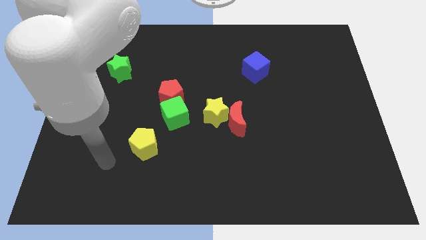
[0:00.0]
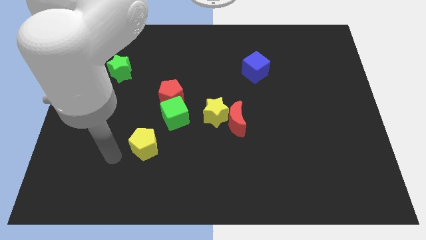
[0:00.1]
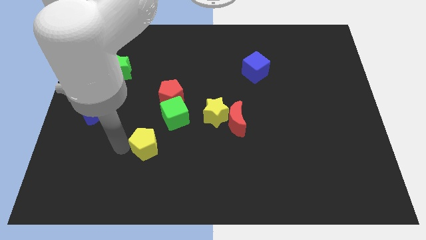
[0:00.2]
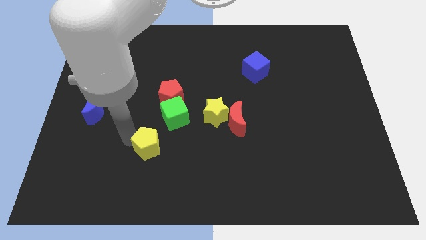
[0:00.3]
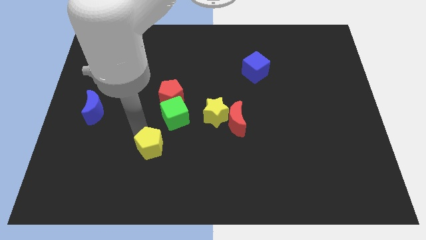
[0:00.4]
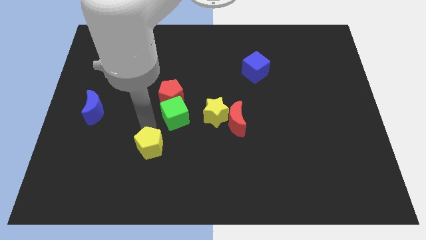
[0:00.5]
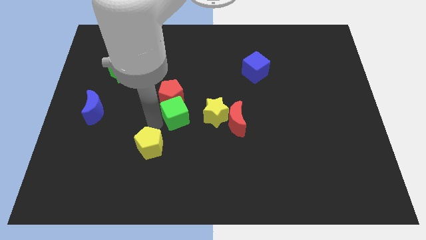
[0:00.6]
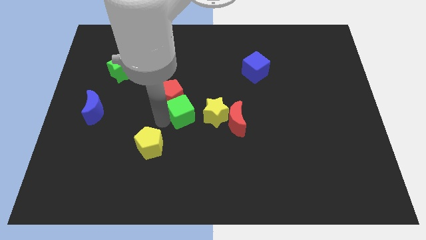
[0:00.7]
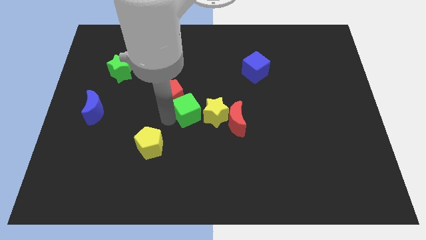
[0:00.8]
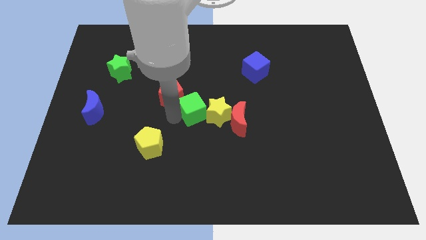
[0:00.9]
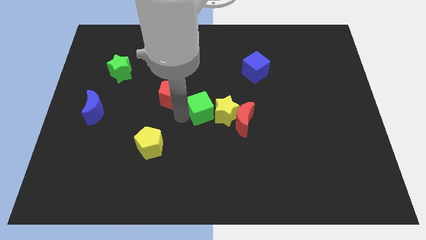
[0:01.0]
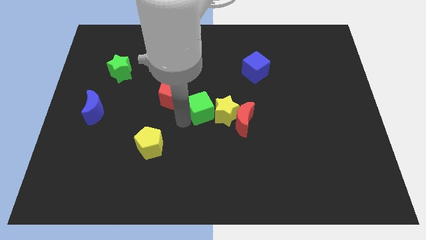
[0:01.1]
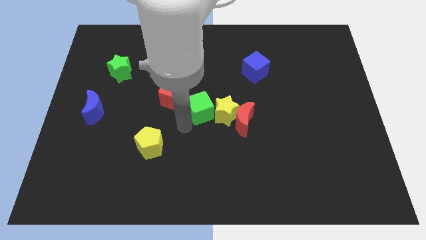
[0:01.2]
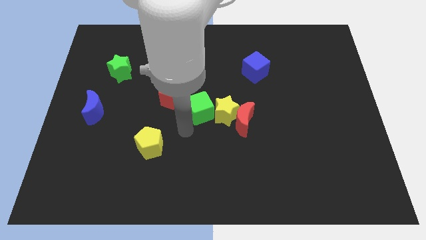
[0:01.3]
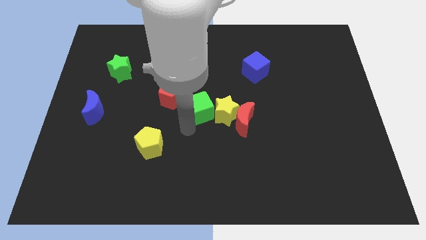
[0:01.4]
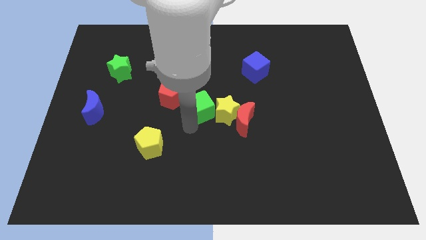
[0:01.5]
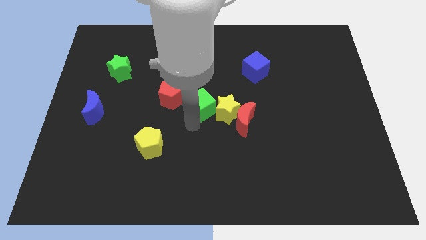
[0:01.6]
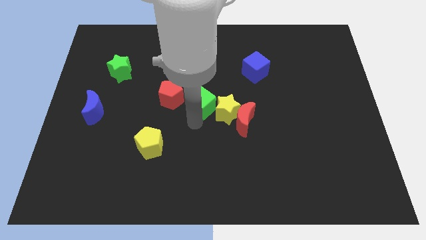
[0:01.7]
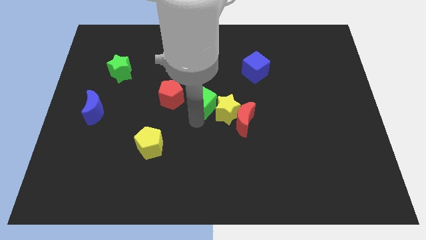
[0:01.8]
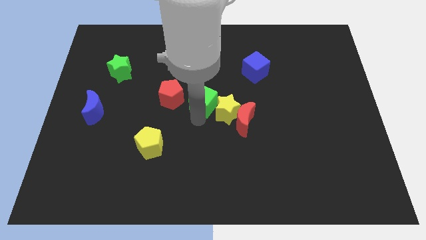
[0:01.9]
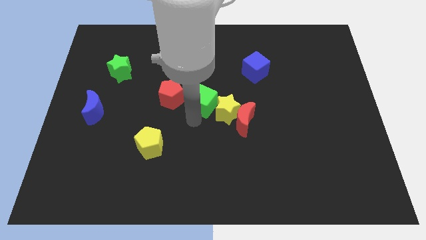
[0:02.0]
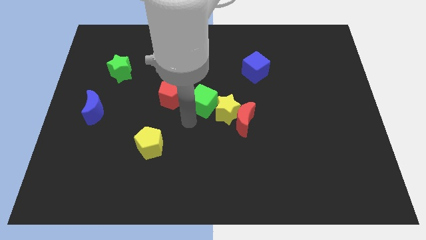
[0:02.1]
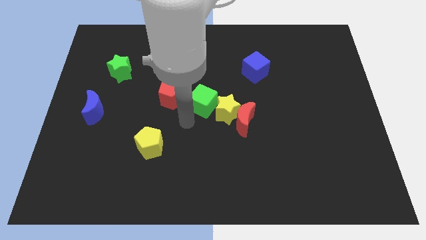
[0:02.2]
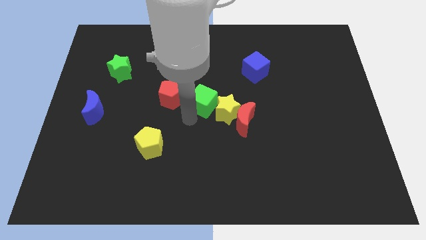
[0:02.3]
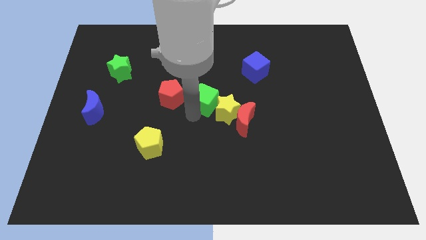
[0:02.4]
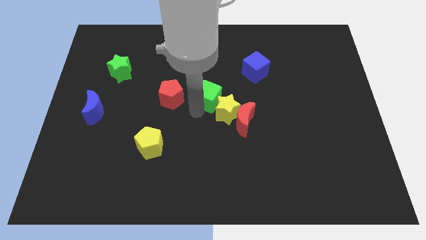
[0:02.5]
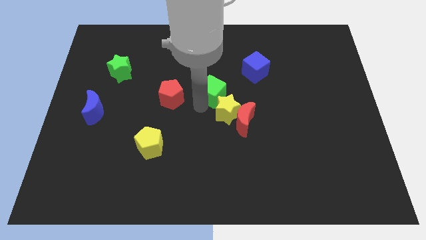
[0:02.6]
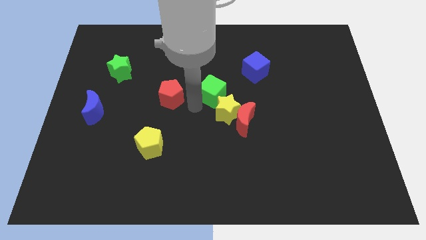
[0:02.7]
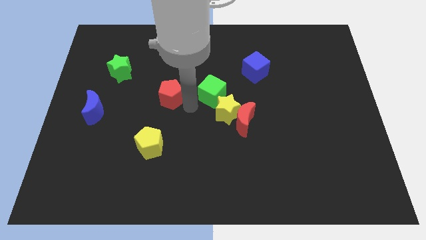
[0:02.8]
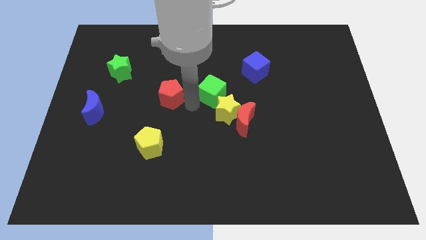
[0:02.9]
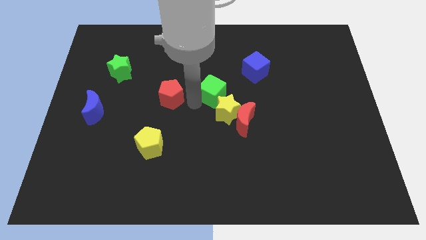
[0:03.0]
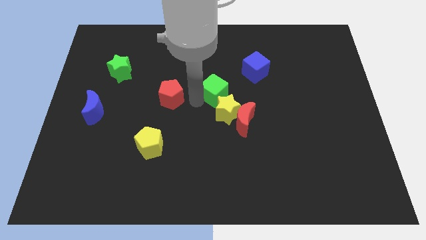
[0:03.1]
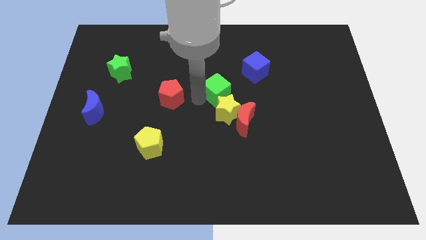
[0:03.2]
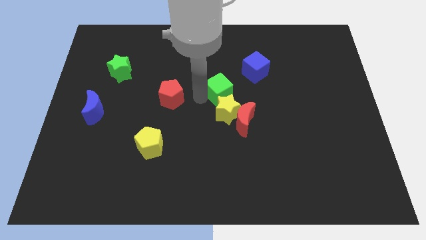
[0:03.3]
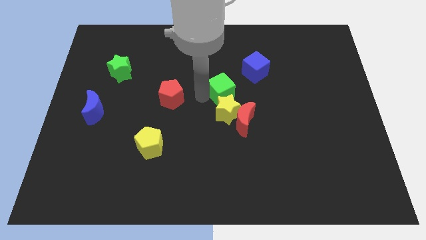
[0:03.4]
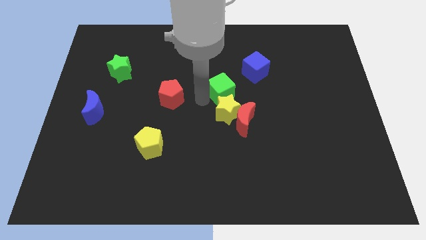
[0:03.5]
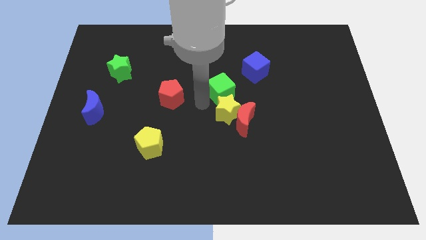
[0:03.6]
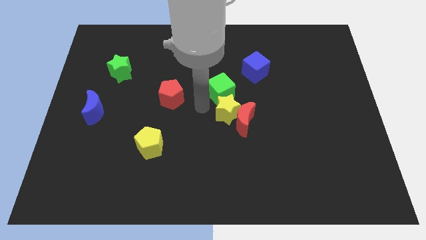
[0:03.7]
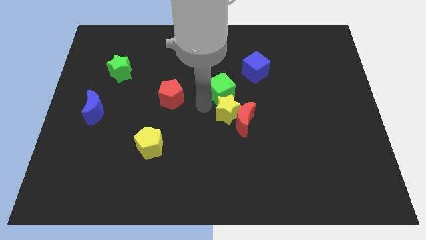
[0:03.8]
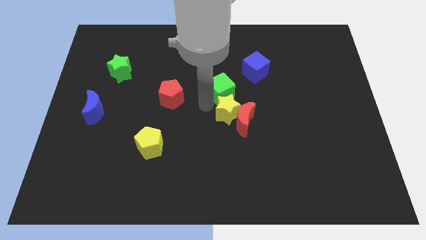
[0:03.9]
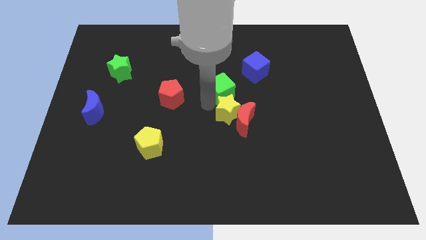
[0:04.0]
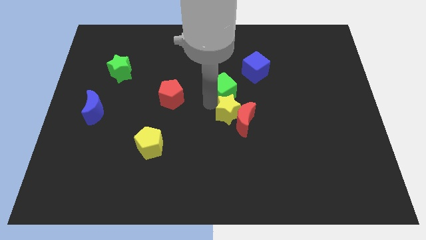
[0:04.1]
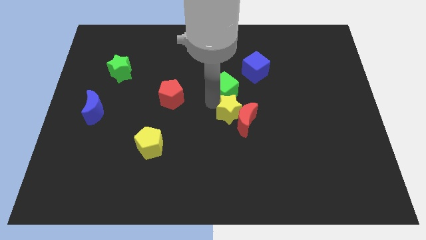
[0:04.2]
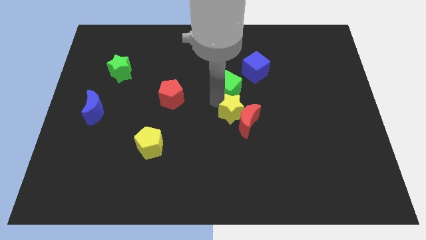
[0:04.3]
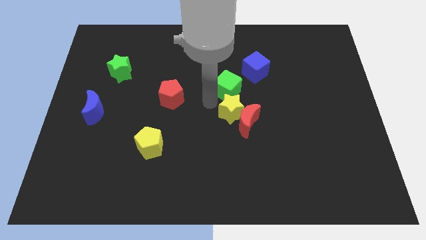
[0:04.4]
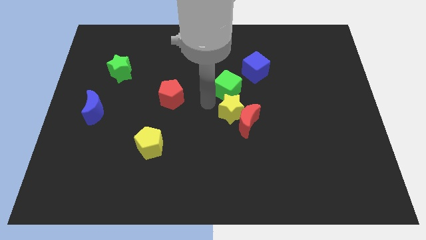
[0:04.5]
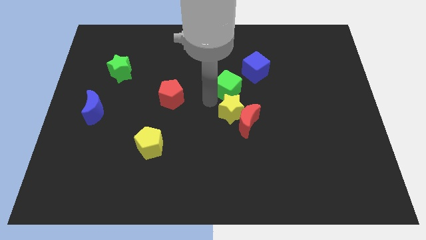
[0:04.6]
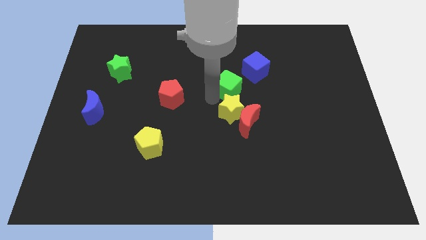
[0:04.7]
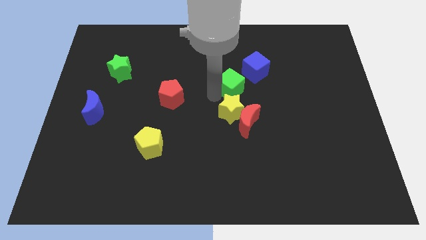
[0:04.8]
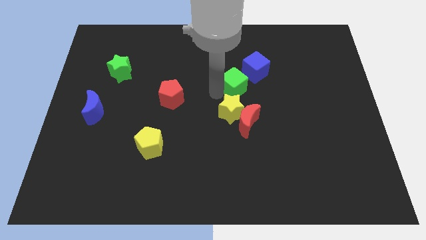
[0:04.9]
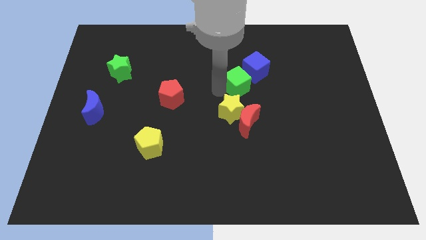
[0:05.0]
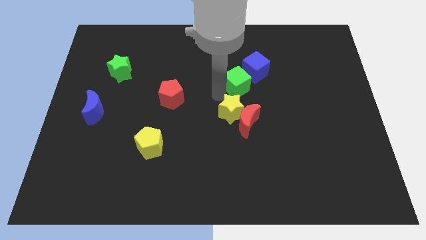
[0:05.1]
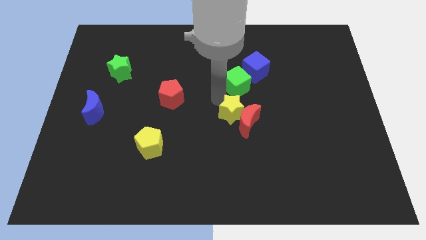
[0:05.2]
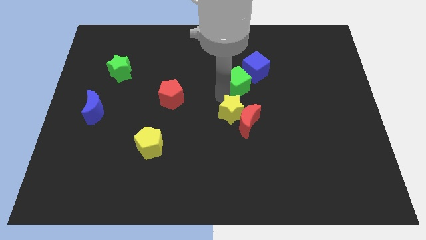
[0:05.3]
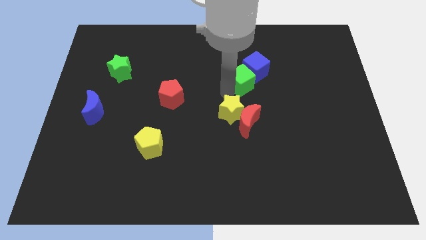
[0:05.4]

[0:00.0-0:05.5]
slide the green cube towards the blue cube

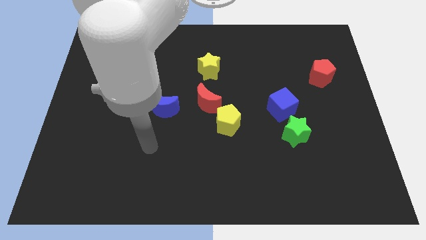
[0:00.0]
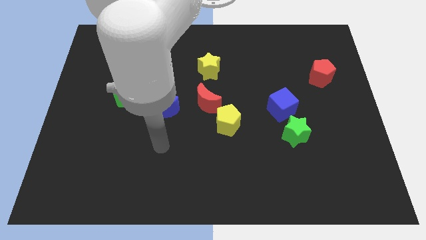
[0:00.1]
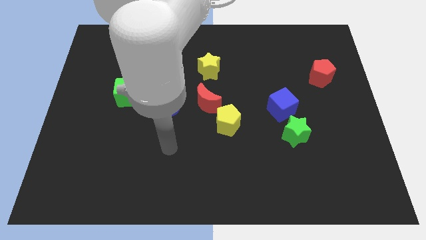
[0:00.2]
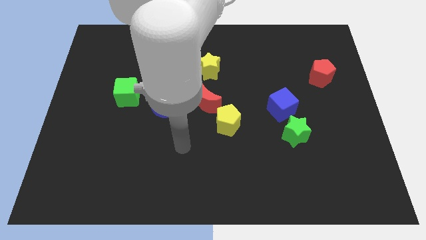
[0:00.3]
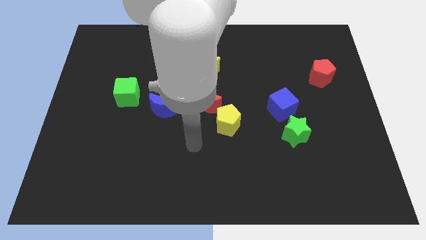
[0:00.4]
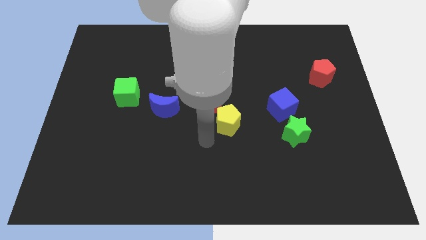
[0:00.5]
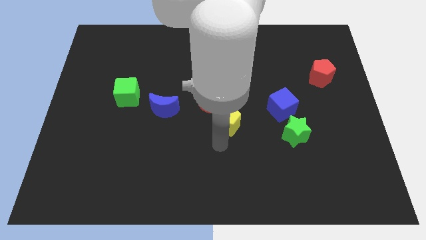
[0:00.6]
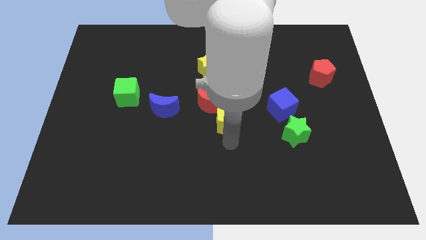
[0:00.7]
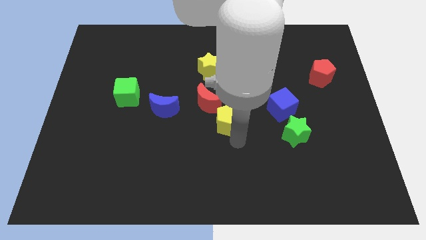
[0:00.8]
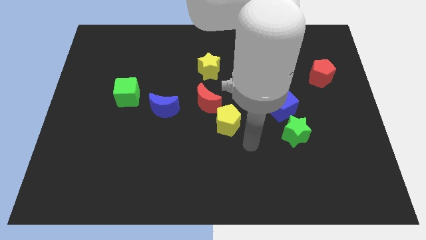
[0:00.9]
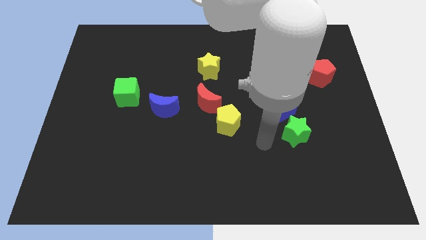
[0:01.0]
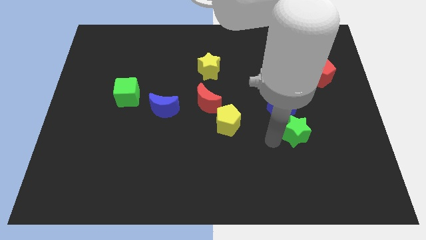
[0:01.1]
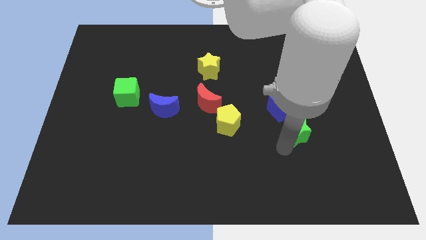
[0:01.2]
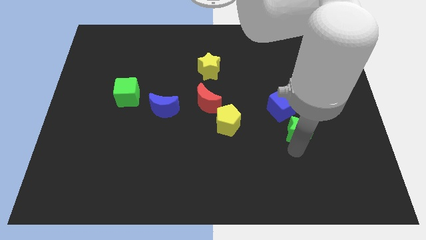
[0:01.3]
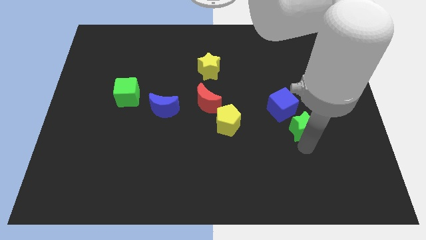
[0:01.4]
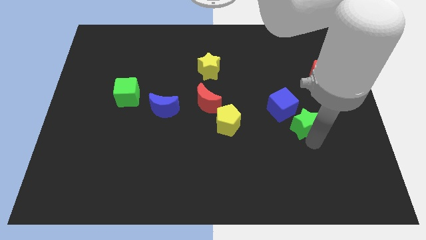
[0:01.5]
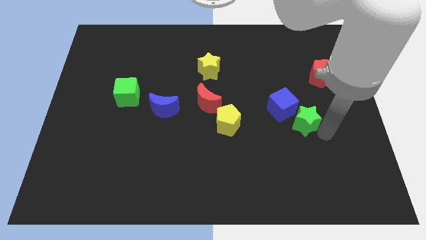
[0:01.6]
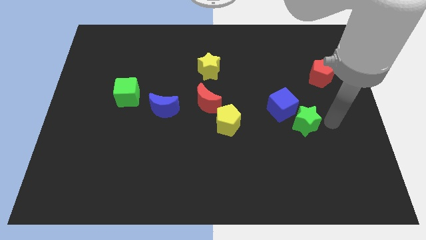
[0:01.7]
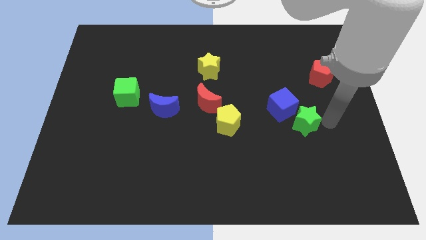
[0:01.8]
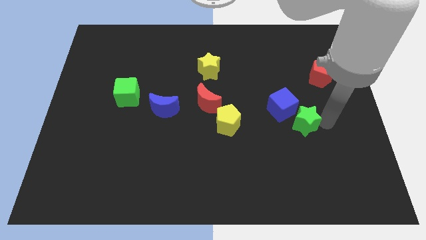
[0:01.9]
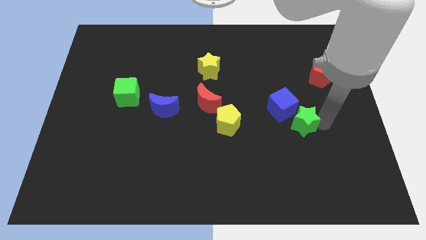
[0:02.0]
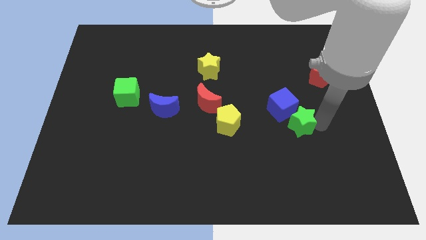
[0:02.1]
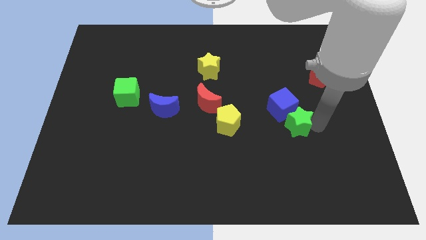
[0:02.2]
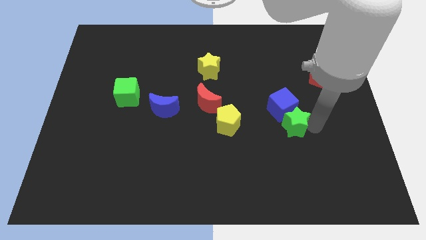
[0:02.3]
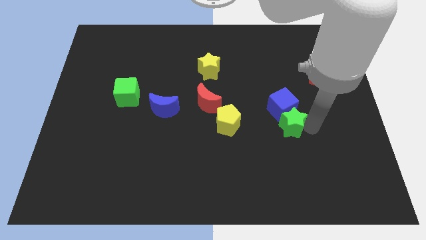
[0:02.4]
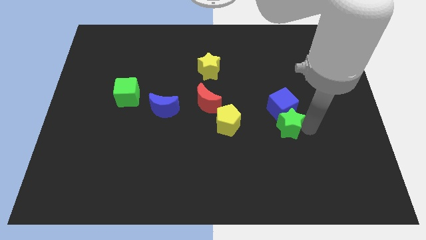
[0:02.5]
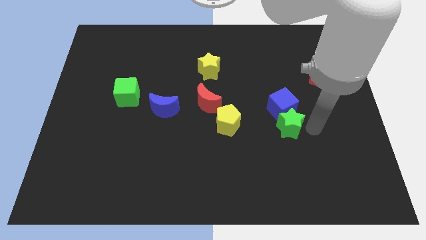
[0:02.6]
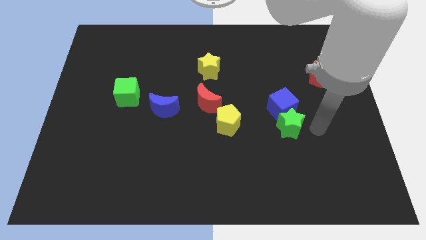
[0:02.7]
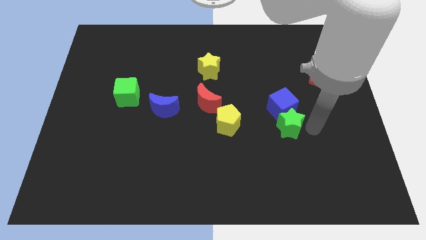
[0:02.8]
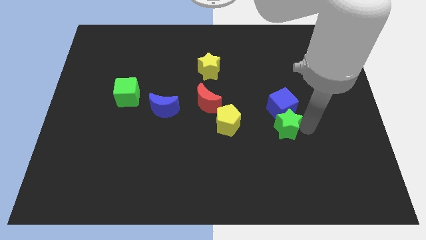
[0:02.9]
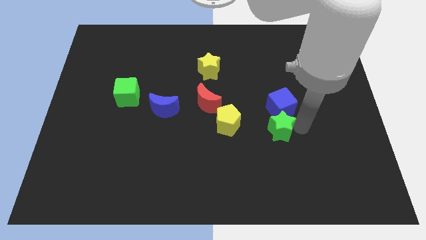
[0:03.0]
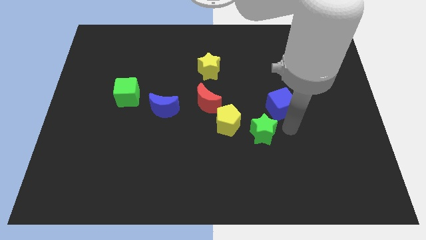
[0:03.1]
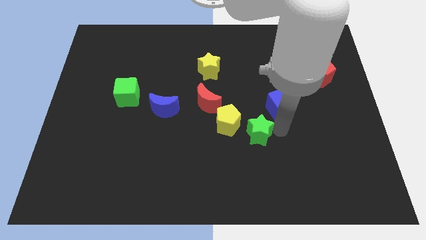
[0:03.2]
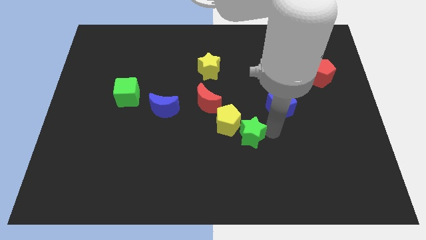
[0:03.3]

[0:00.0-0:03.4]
slide the green star close to the yellow pentagon
